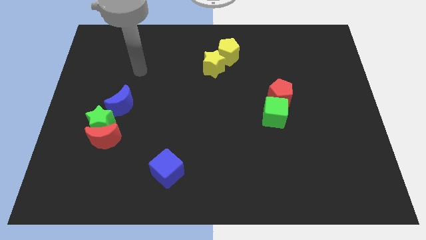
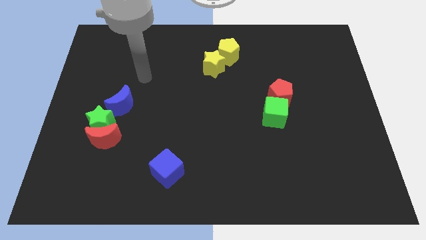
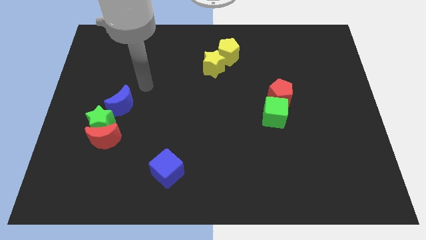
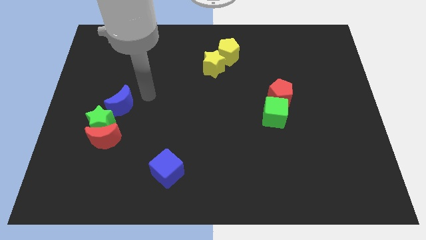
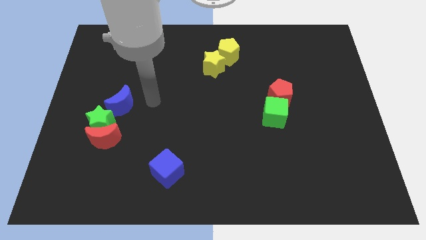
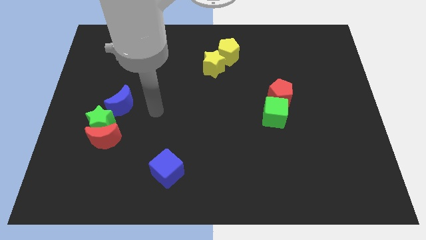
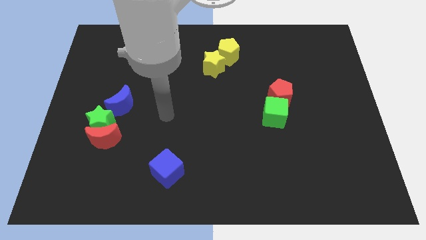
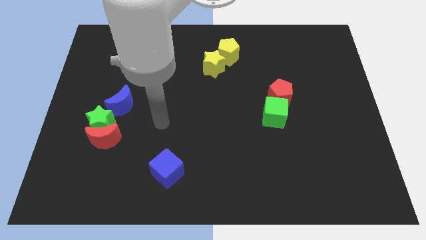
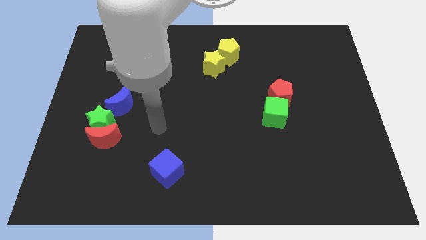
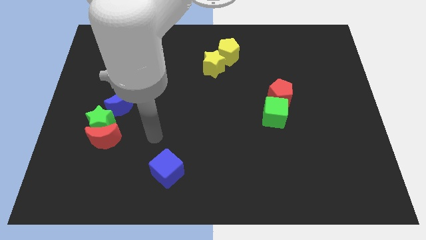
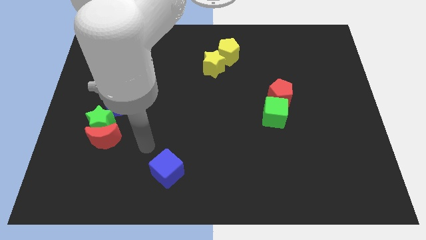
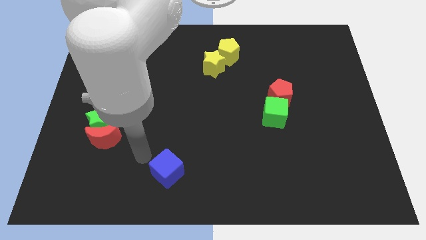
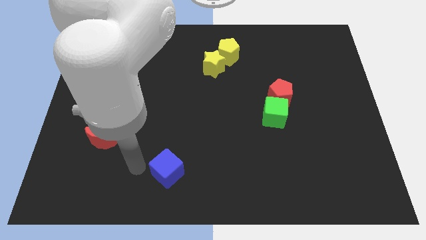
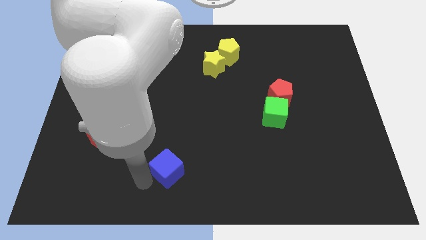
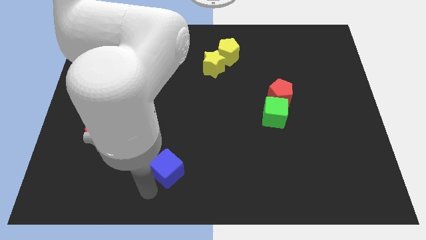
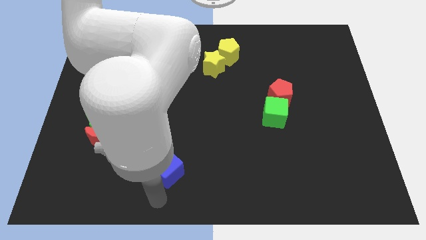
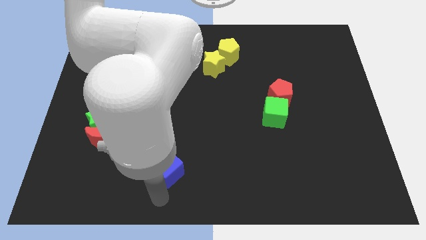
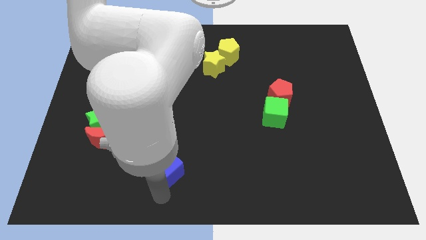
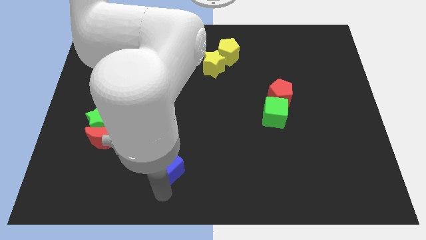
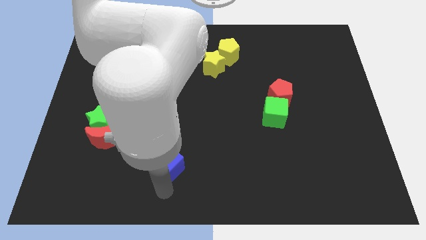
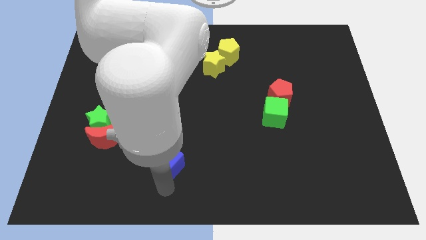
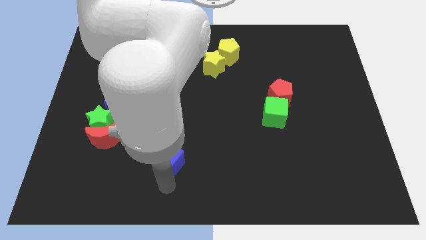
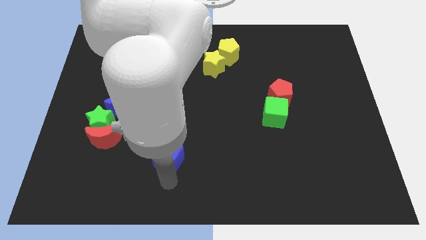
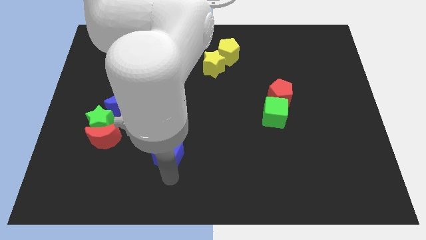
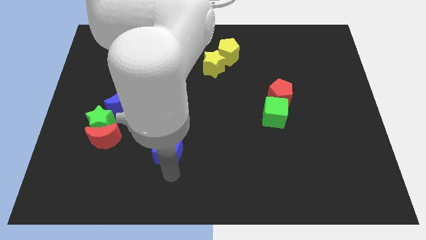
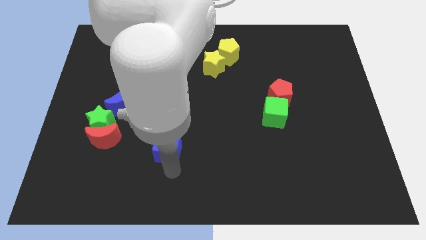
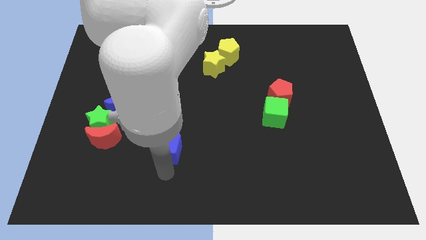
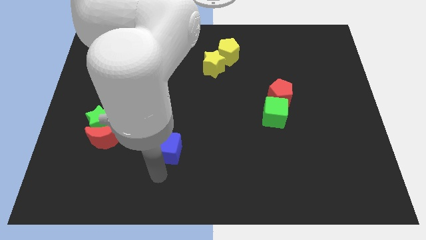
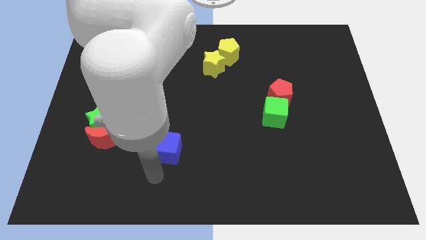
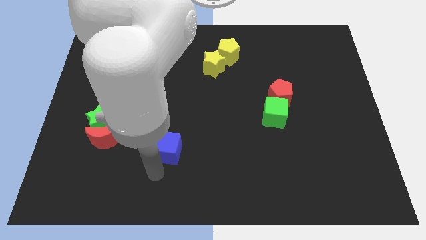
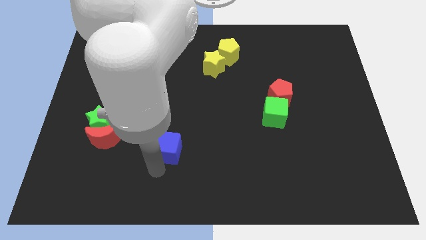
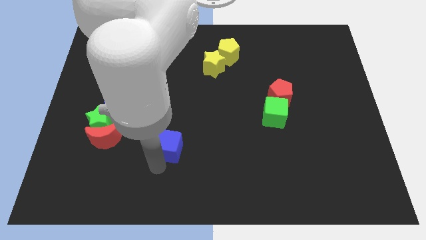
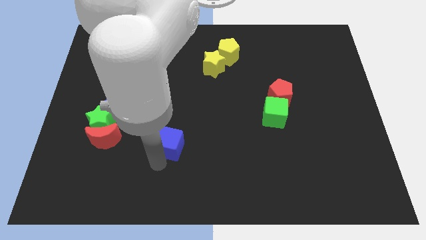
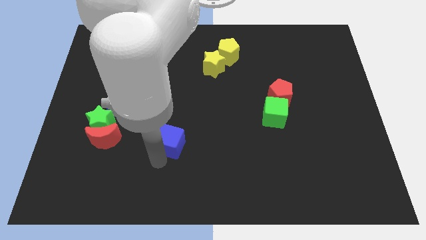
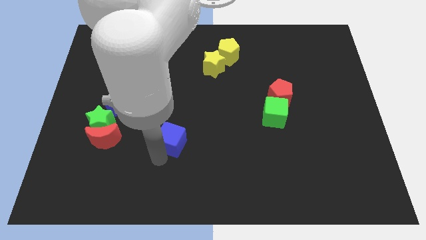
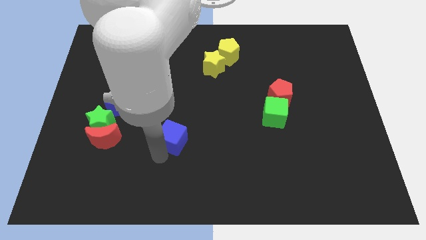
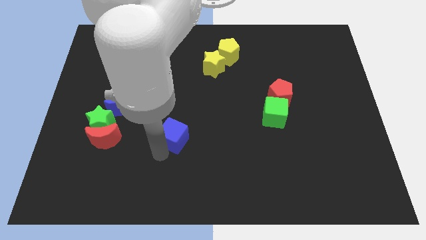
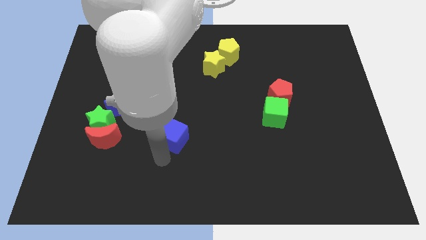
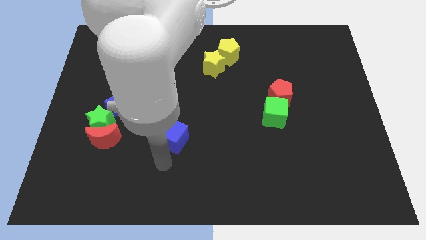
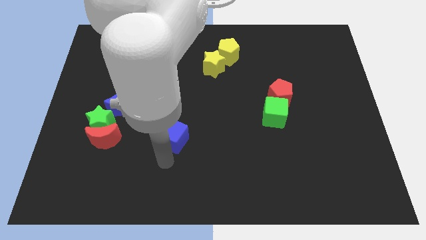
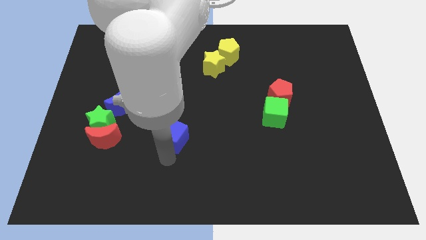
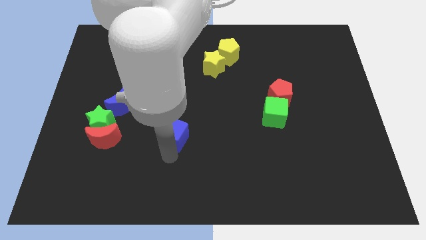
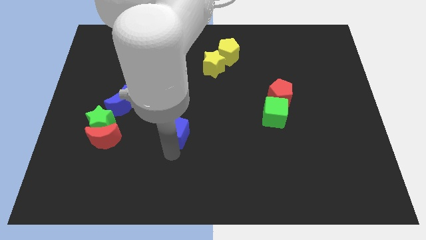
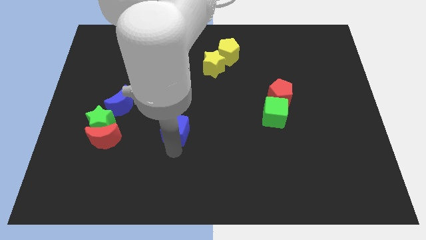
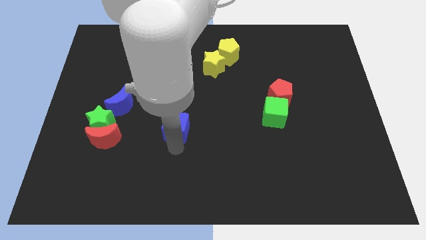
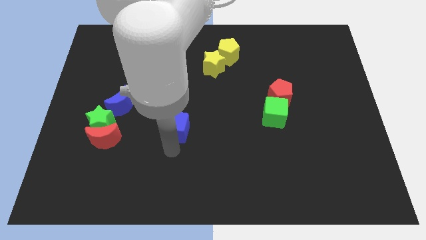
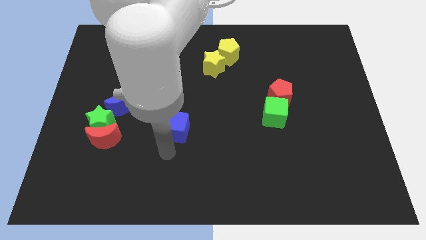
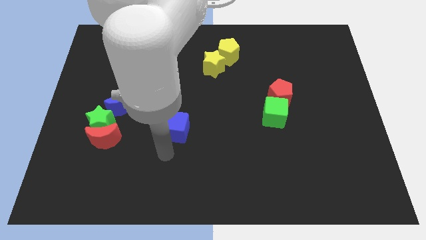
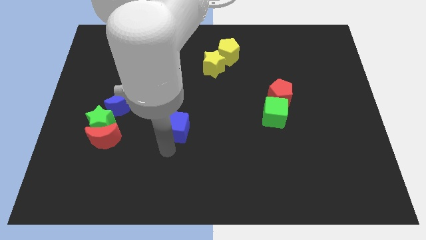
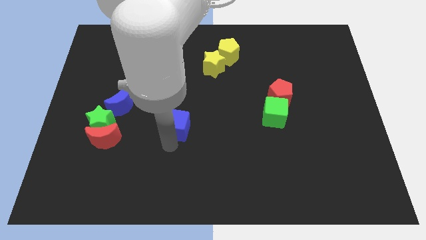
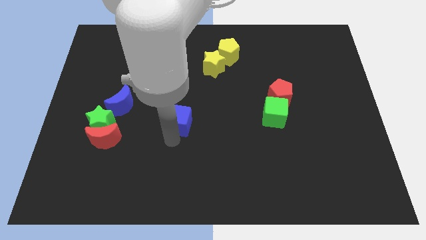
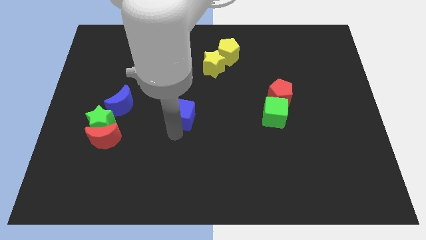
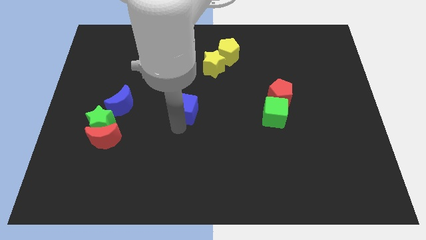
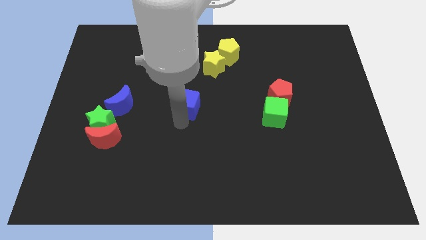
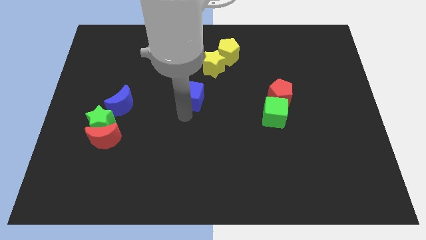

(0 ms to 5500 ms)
move the blue cube to the bottom left side of the yellow star

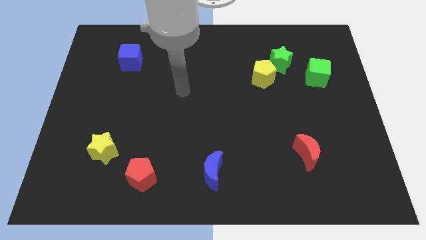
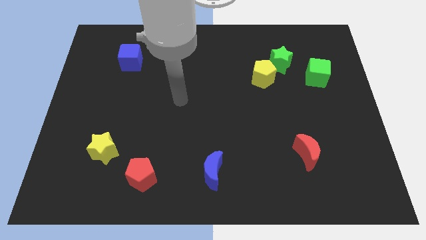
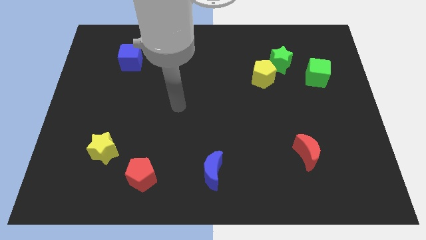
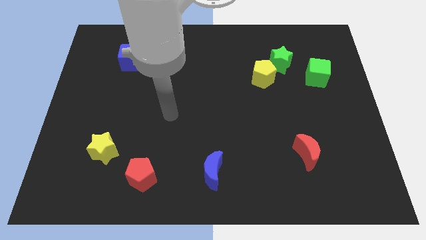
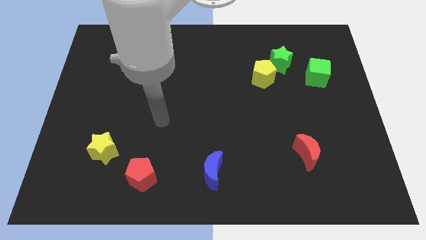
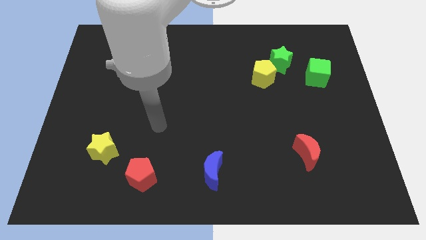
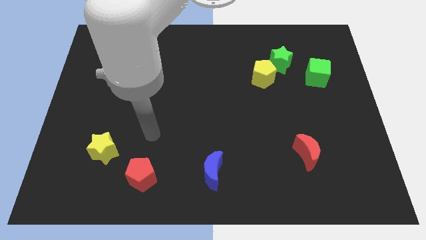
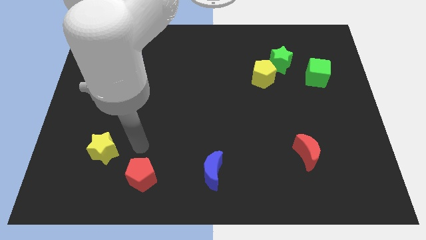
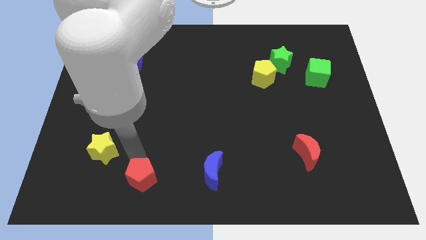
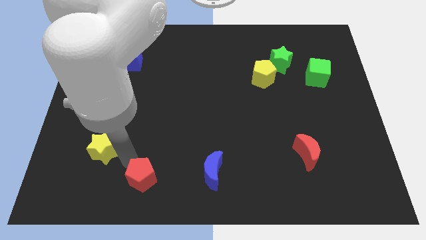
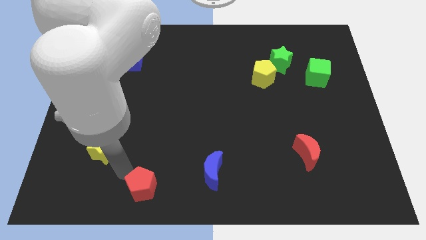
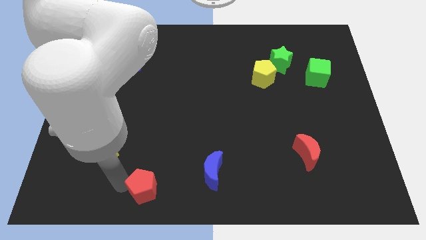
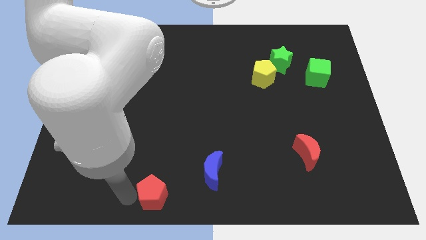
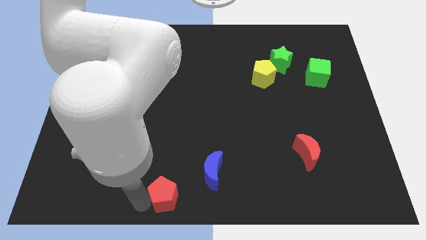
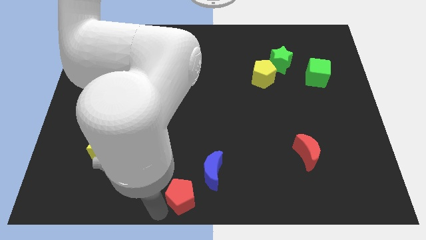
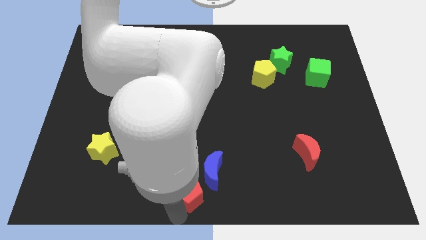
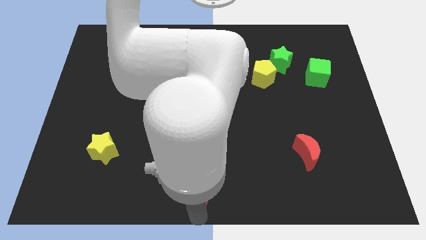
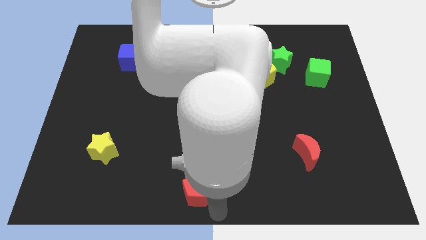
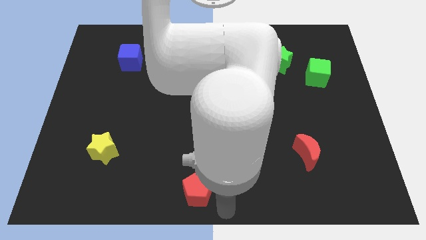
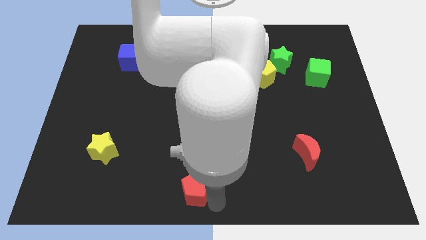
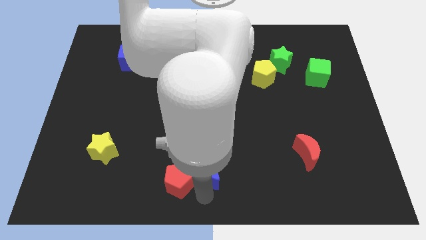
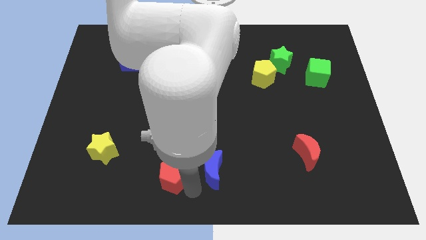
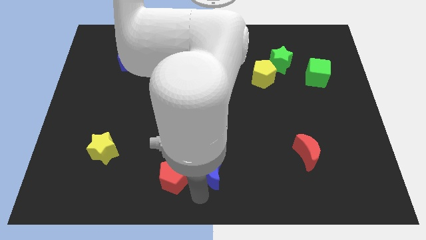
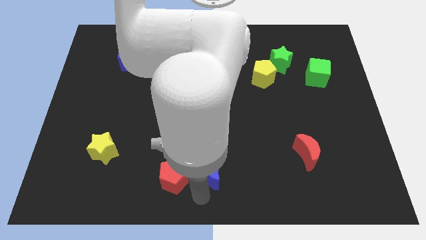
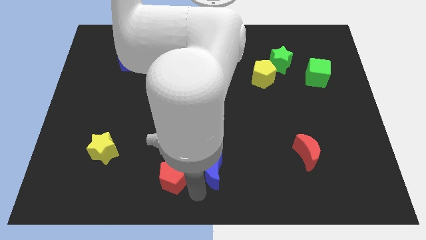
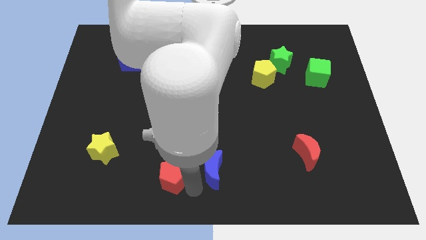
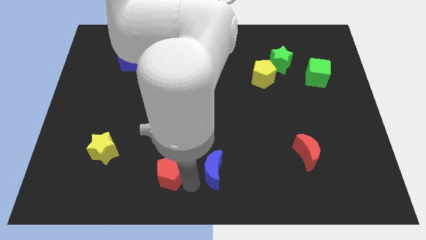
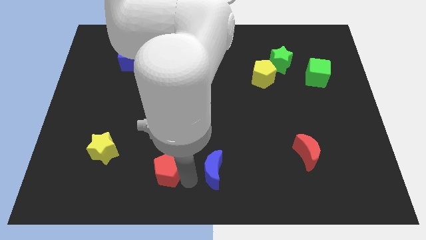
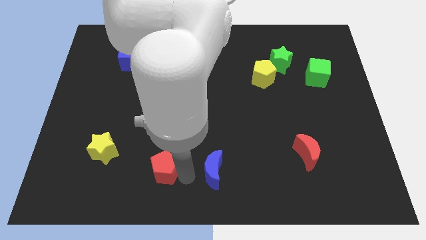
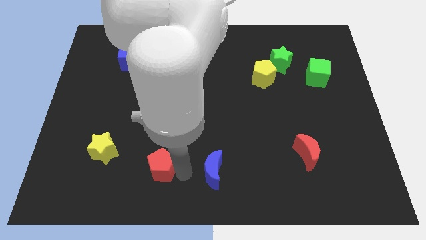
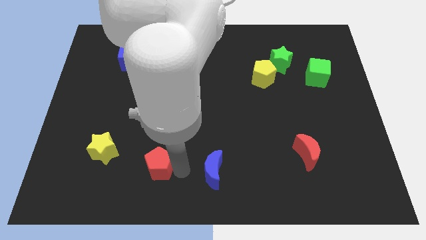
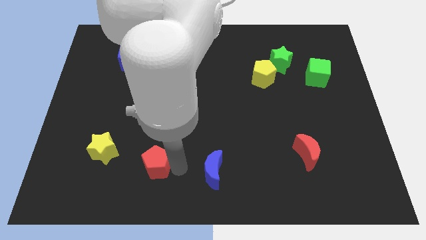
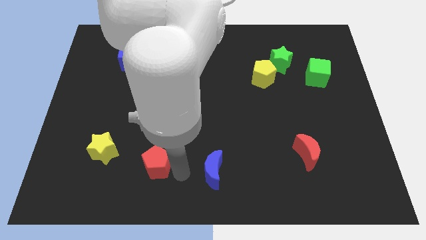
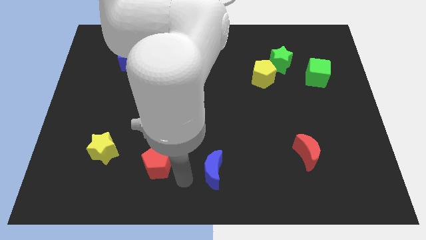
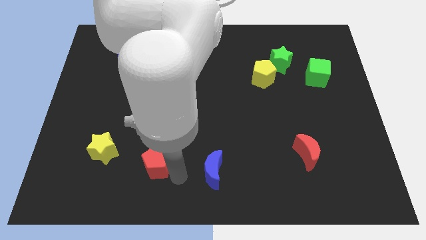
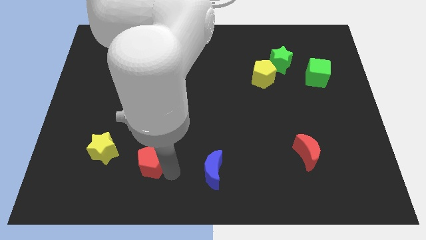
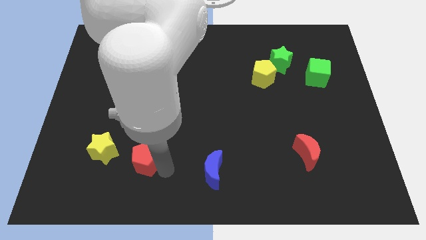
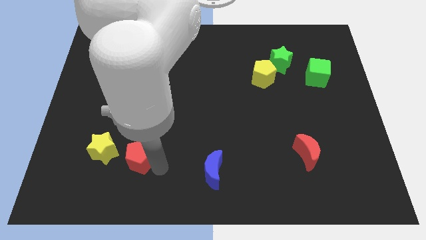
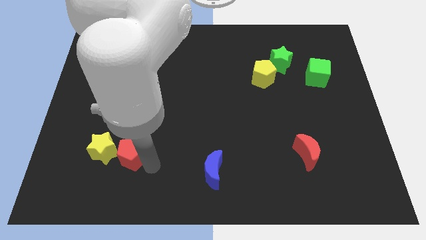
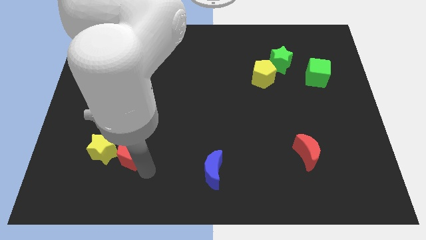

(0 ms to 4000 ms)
slide the red pentagon to the top right of the yellow star
